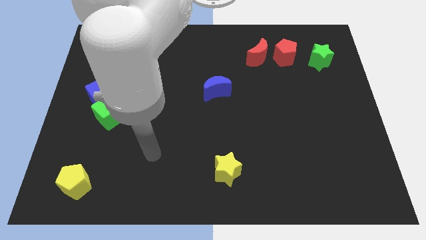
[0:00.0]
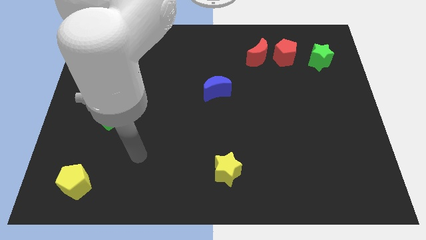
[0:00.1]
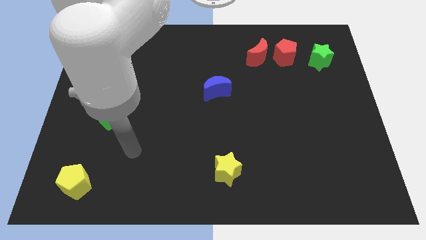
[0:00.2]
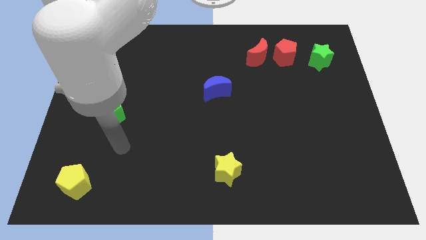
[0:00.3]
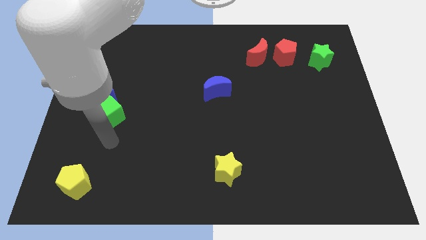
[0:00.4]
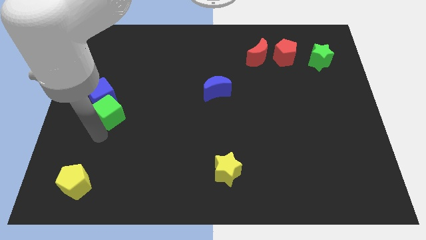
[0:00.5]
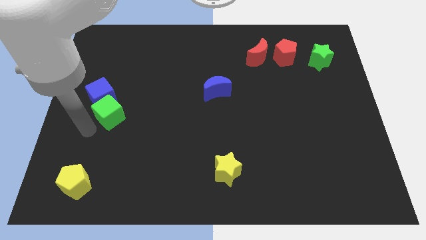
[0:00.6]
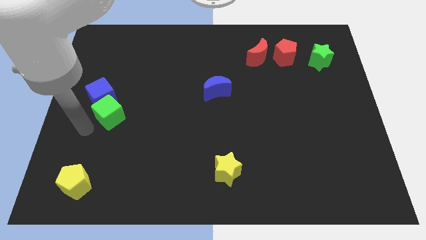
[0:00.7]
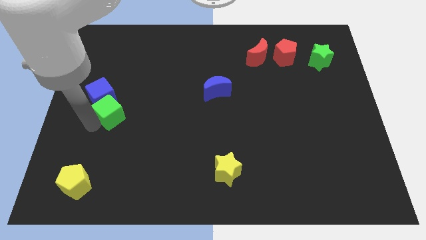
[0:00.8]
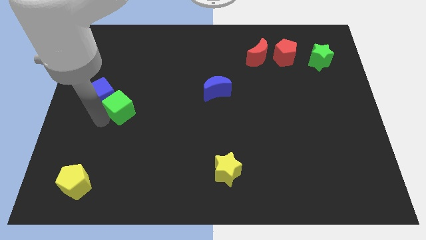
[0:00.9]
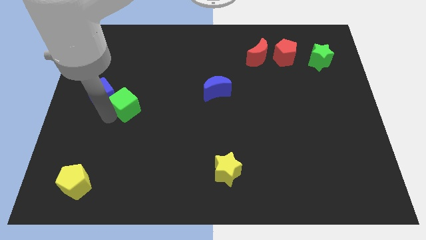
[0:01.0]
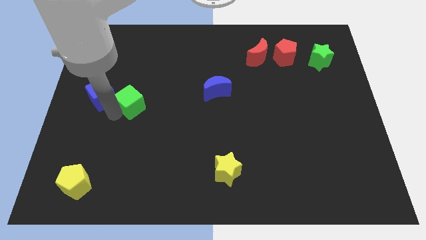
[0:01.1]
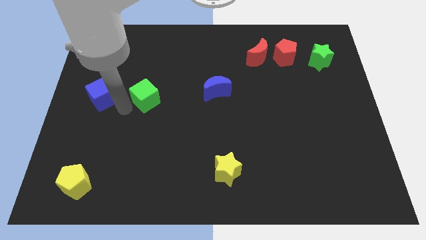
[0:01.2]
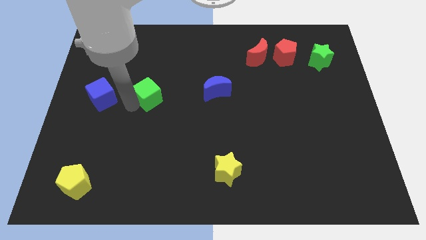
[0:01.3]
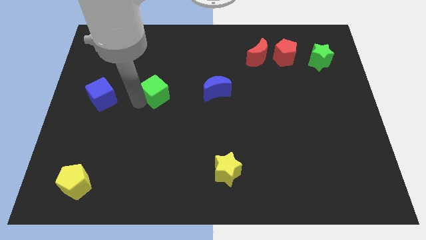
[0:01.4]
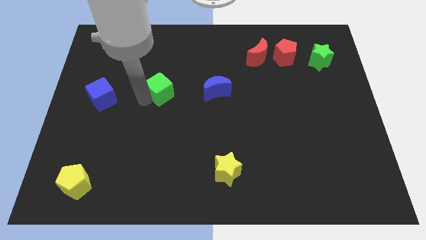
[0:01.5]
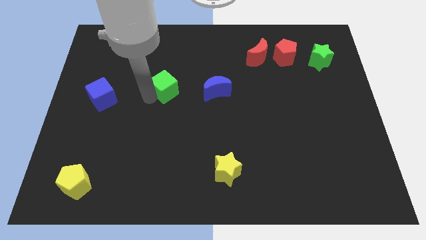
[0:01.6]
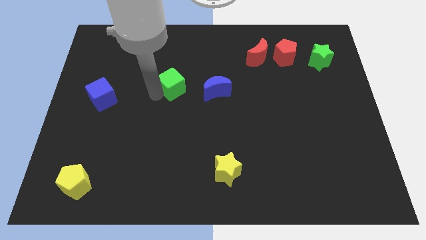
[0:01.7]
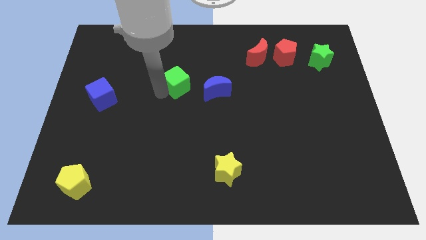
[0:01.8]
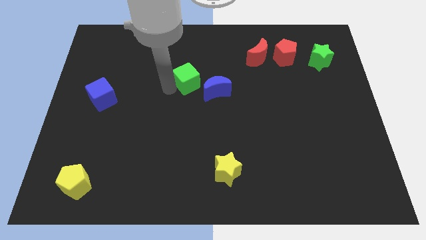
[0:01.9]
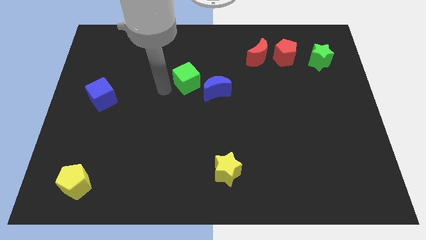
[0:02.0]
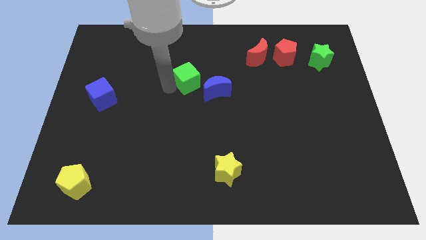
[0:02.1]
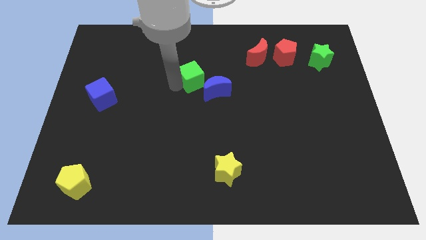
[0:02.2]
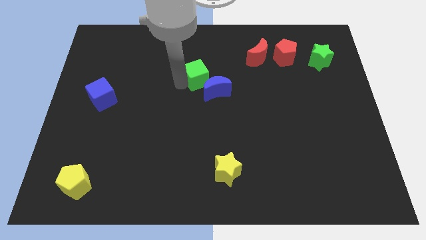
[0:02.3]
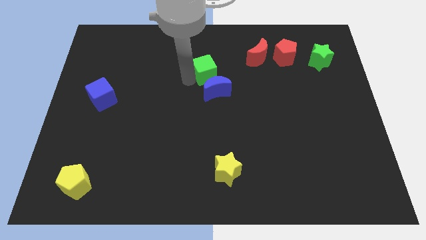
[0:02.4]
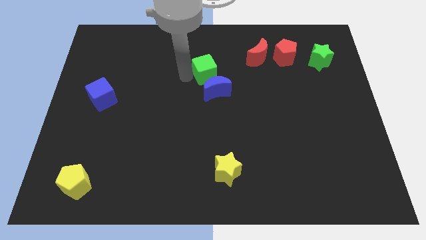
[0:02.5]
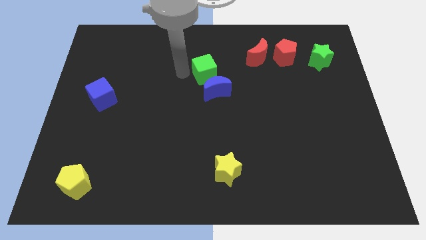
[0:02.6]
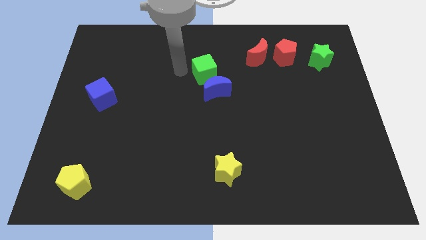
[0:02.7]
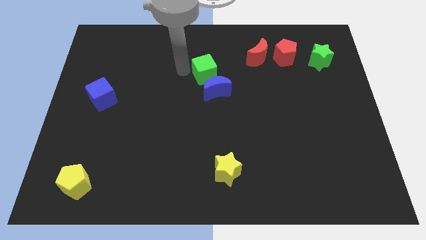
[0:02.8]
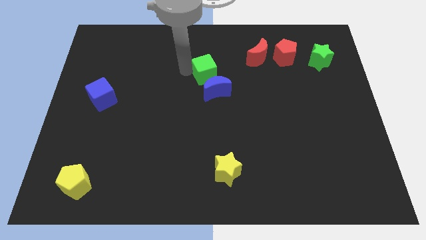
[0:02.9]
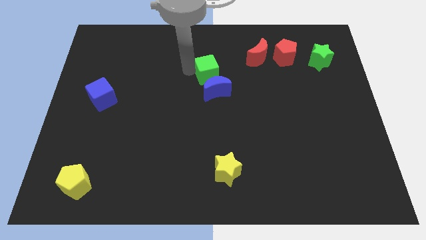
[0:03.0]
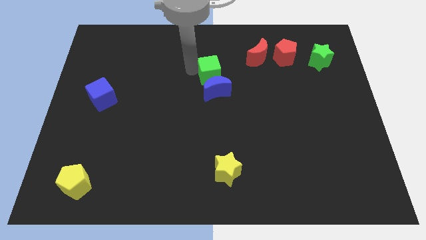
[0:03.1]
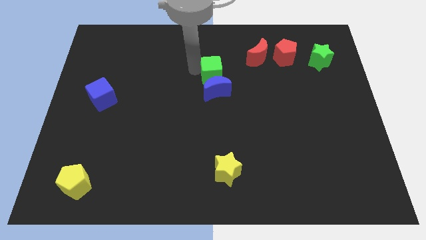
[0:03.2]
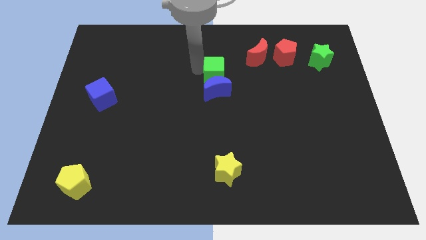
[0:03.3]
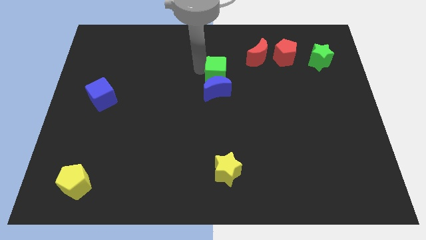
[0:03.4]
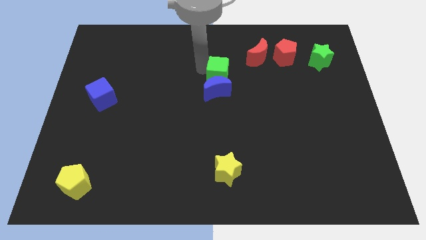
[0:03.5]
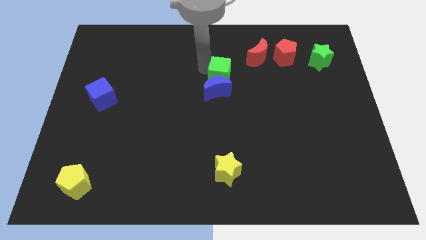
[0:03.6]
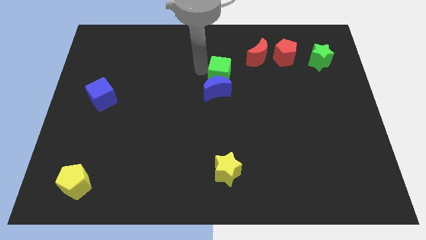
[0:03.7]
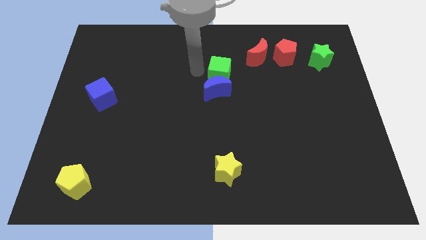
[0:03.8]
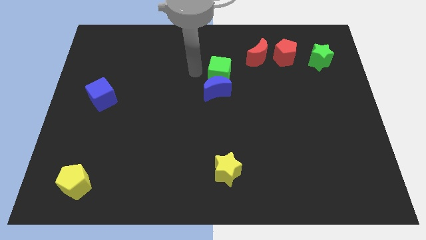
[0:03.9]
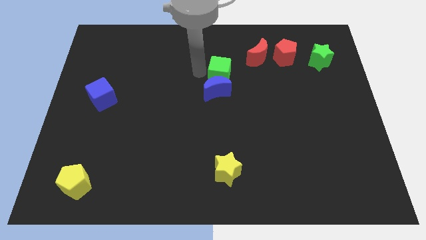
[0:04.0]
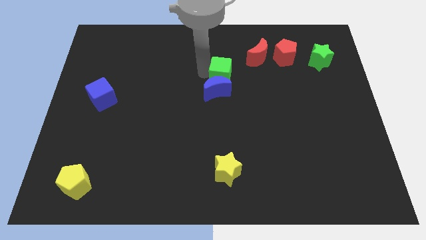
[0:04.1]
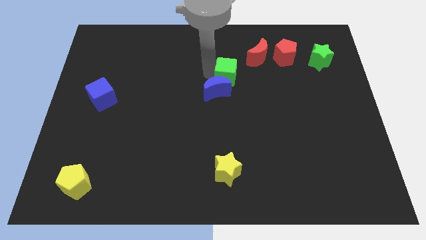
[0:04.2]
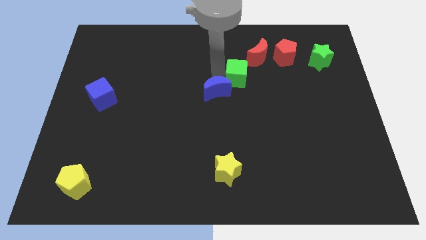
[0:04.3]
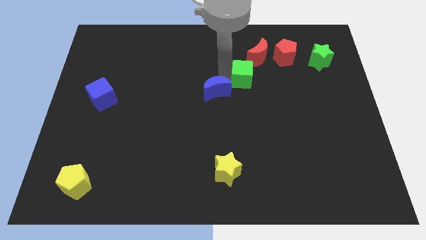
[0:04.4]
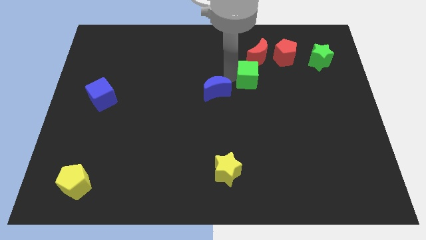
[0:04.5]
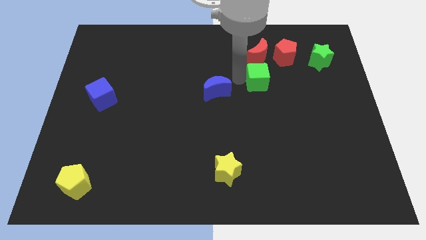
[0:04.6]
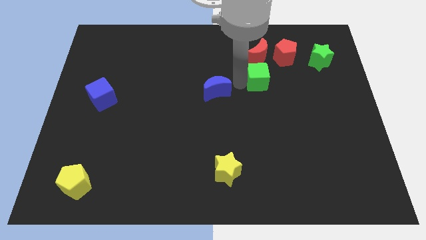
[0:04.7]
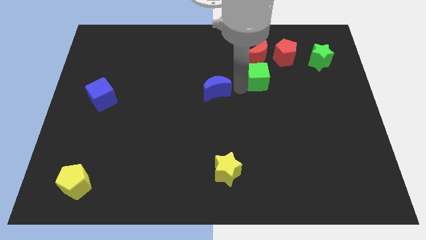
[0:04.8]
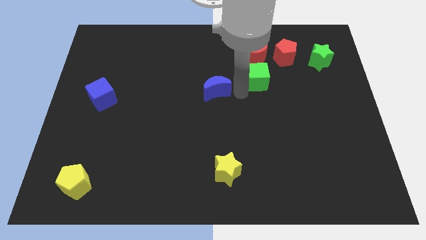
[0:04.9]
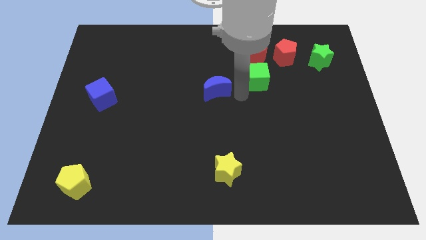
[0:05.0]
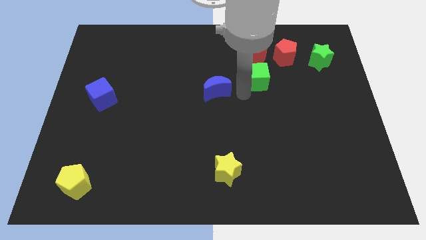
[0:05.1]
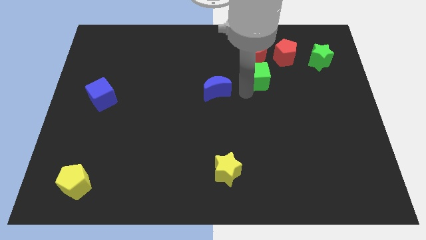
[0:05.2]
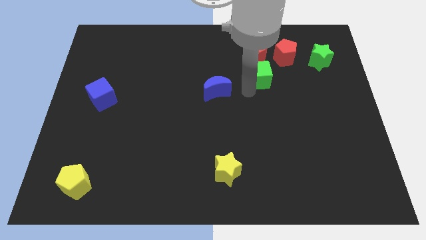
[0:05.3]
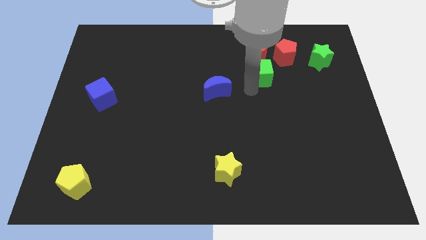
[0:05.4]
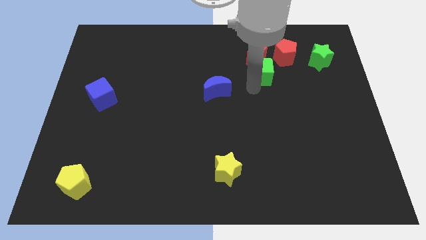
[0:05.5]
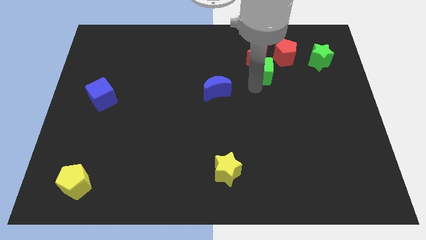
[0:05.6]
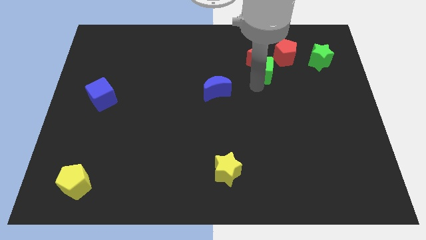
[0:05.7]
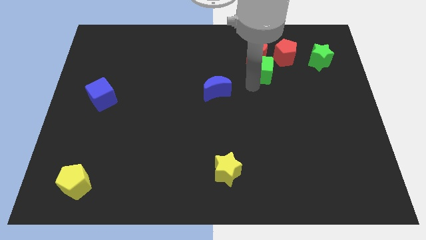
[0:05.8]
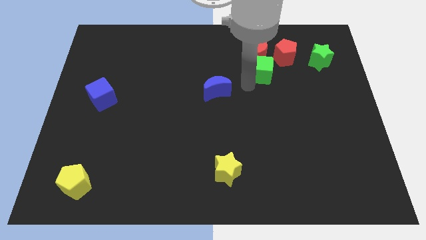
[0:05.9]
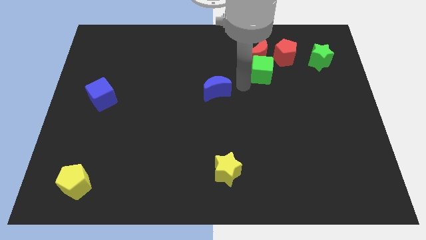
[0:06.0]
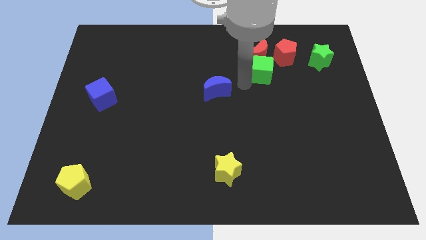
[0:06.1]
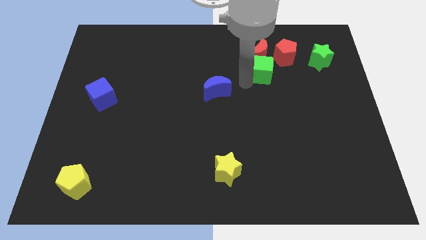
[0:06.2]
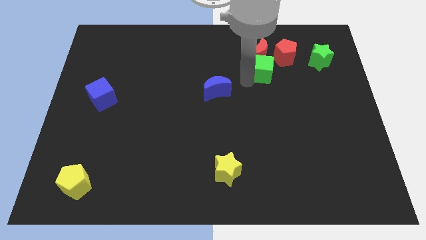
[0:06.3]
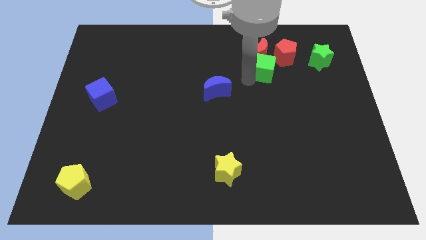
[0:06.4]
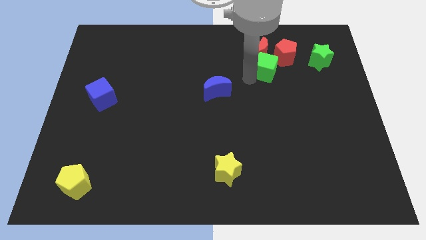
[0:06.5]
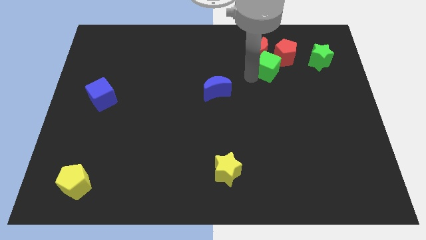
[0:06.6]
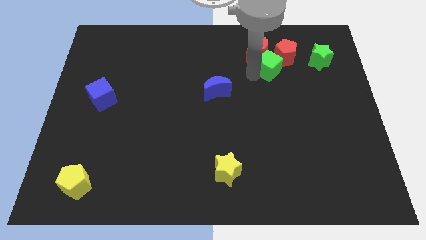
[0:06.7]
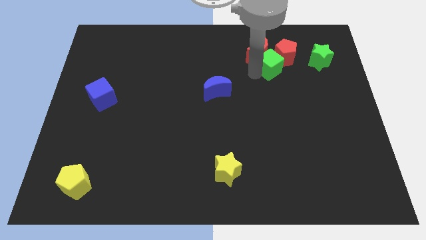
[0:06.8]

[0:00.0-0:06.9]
move the green cube towards the red pentagon
